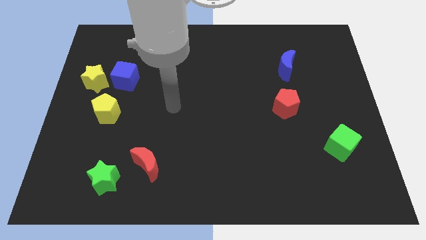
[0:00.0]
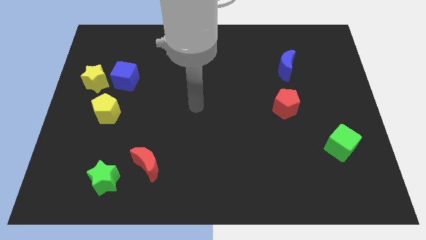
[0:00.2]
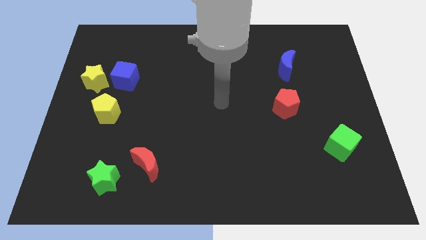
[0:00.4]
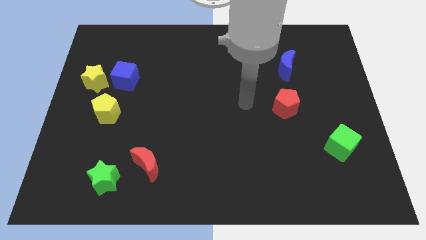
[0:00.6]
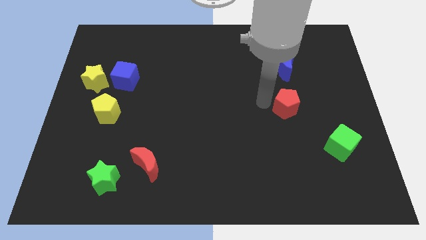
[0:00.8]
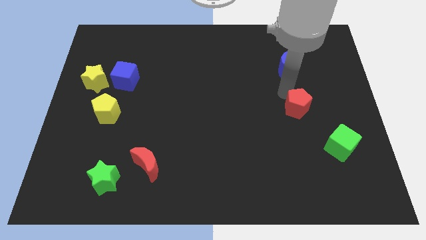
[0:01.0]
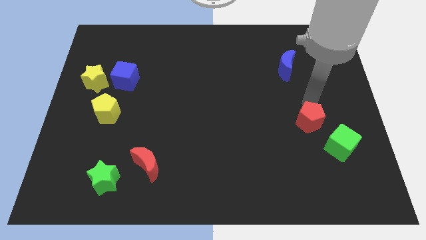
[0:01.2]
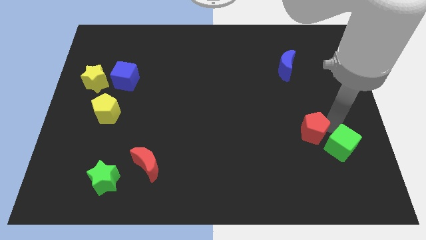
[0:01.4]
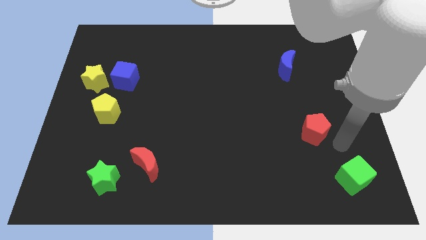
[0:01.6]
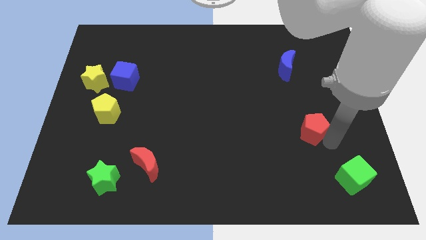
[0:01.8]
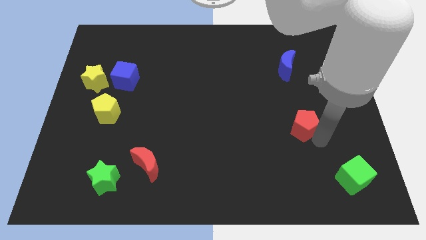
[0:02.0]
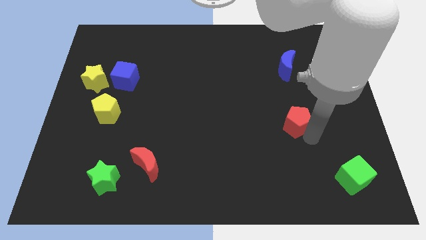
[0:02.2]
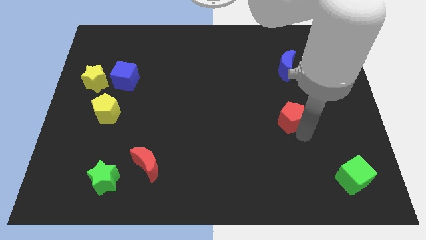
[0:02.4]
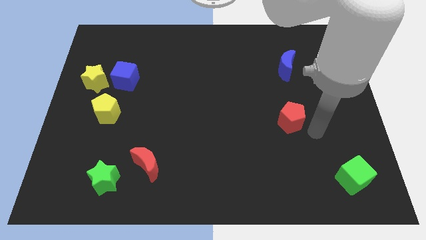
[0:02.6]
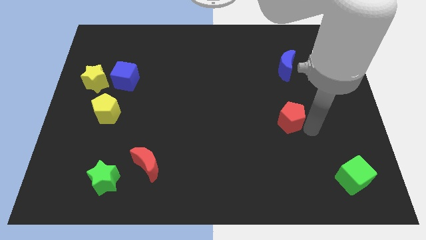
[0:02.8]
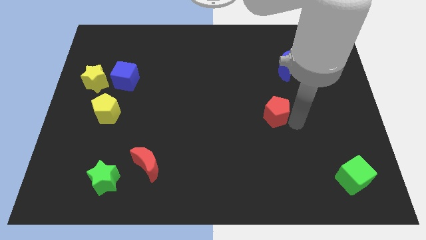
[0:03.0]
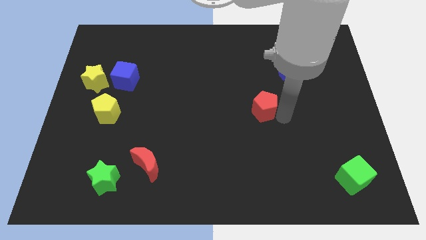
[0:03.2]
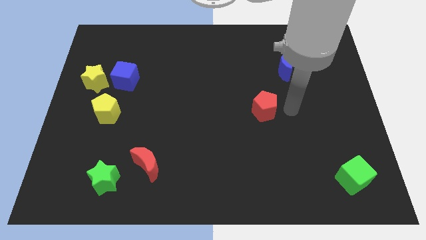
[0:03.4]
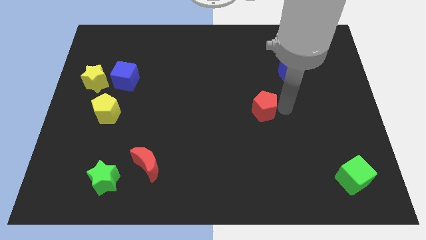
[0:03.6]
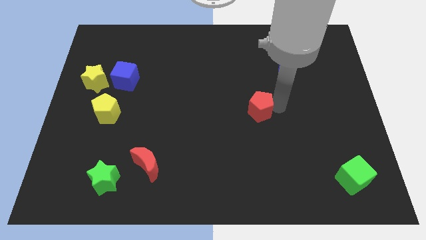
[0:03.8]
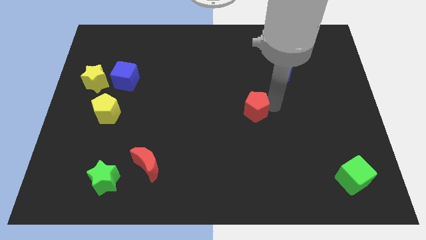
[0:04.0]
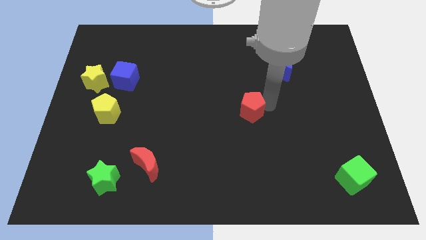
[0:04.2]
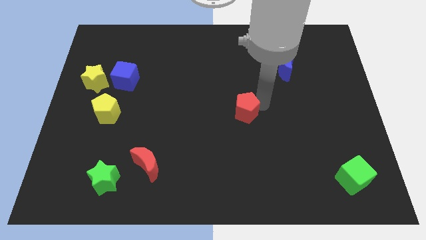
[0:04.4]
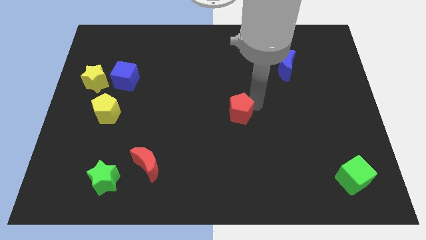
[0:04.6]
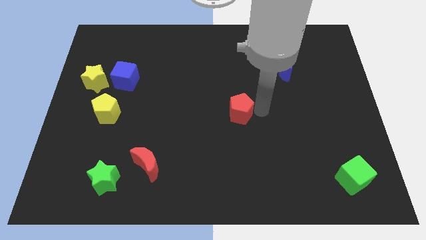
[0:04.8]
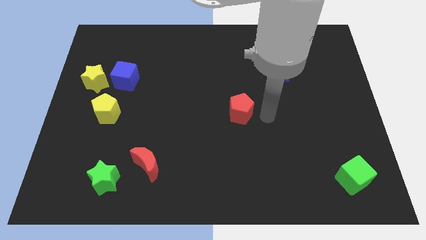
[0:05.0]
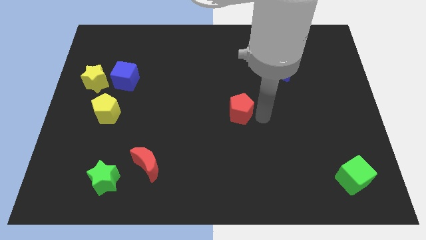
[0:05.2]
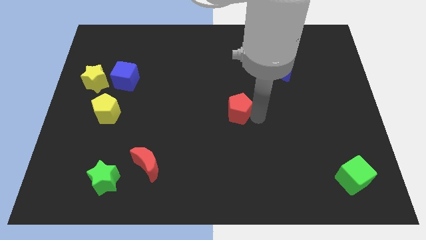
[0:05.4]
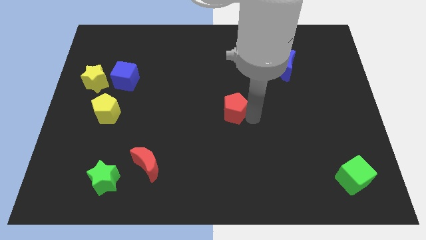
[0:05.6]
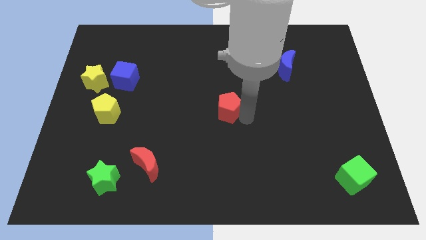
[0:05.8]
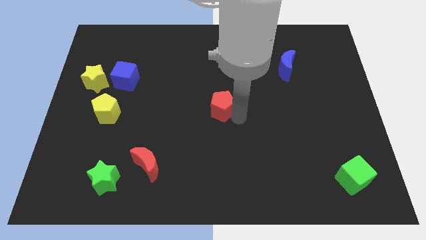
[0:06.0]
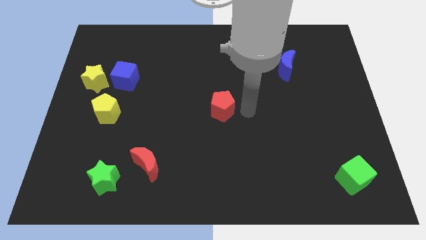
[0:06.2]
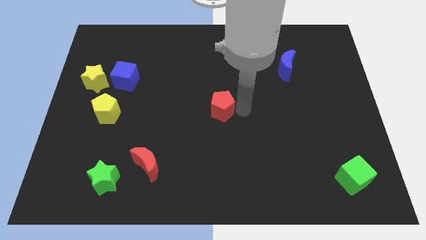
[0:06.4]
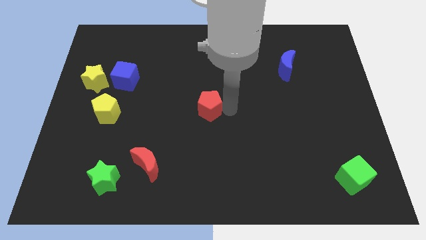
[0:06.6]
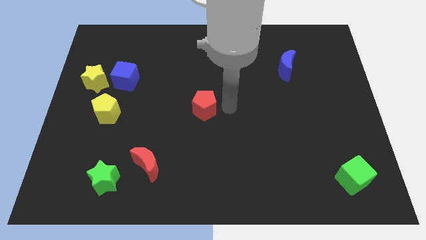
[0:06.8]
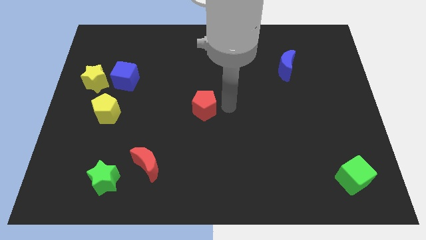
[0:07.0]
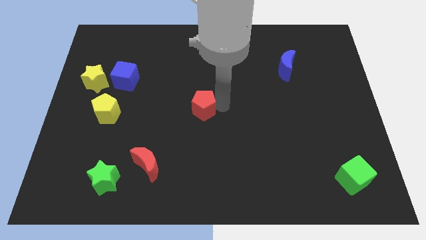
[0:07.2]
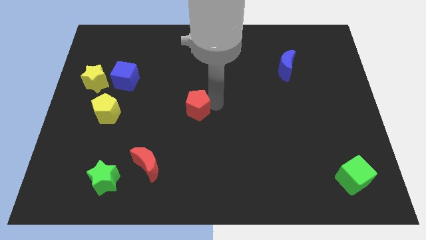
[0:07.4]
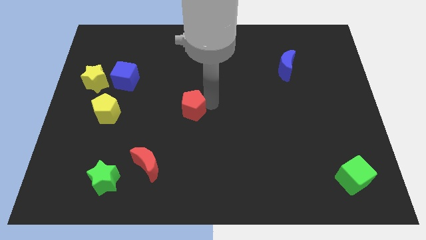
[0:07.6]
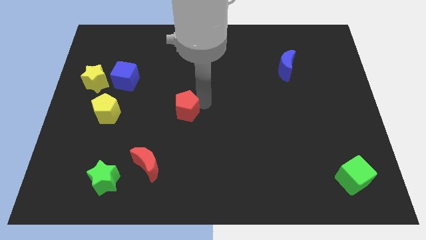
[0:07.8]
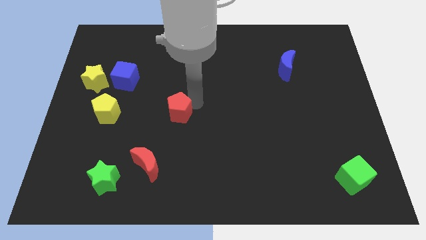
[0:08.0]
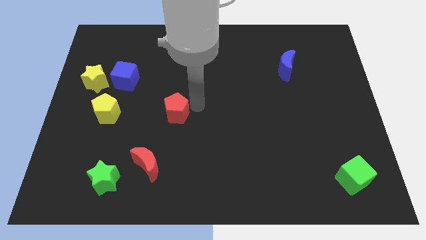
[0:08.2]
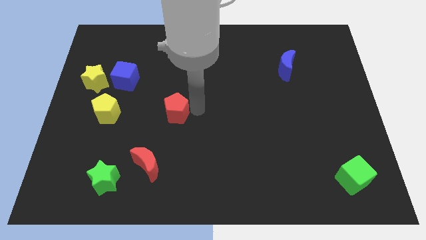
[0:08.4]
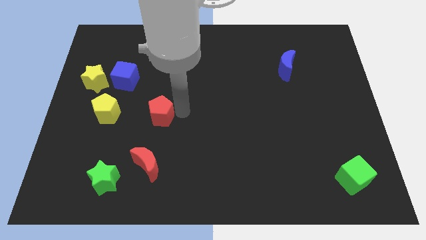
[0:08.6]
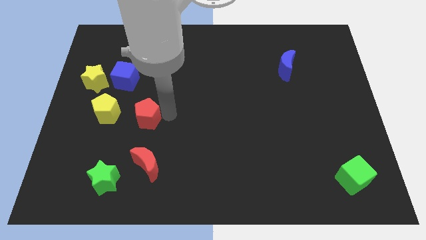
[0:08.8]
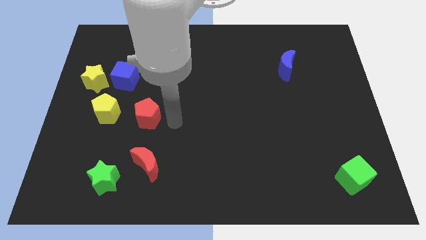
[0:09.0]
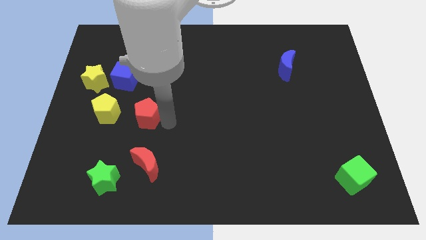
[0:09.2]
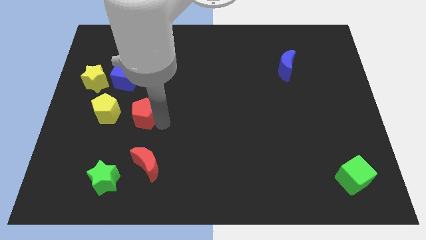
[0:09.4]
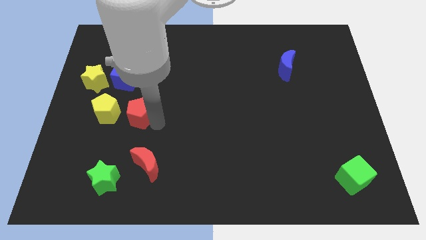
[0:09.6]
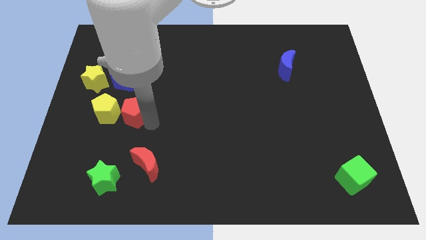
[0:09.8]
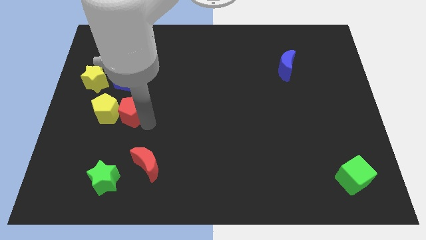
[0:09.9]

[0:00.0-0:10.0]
slide the red pentagon towards the yellow pentagon

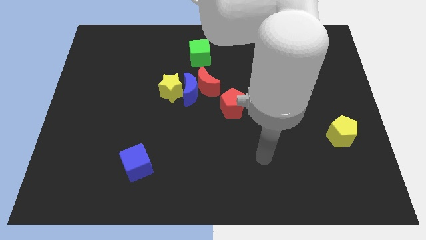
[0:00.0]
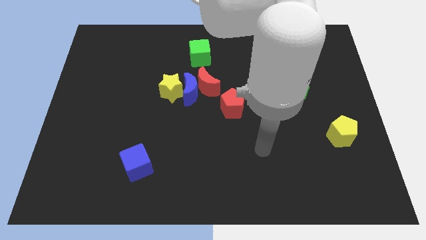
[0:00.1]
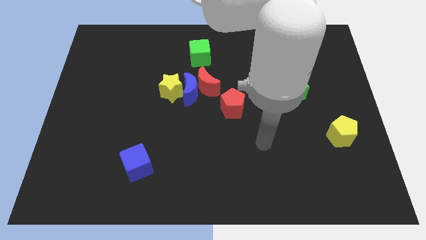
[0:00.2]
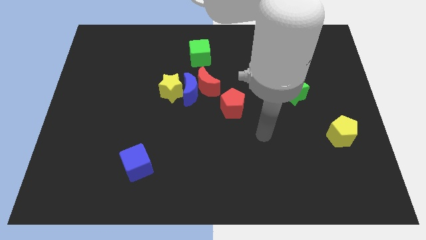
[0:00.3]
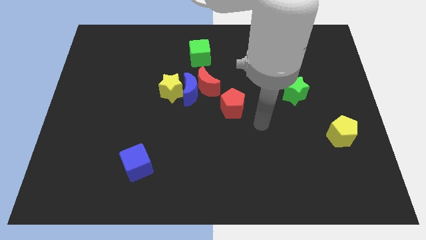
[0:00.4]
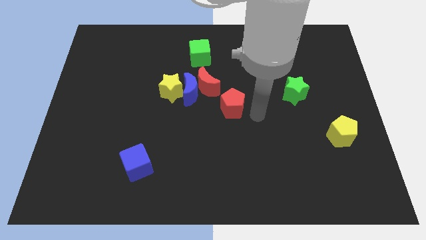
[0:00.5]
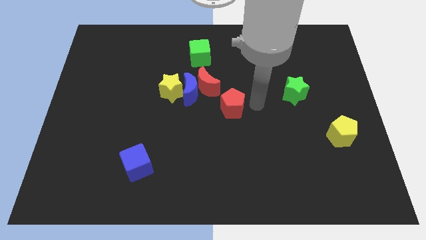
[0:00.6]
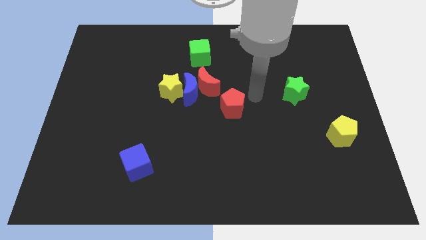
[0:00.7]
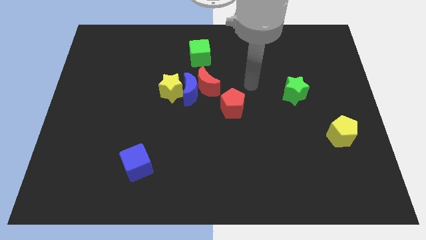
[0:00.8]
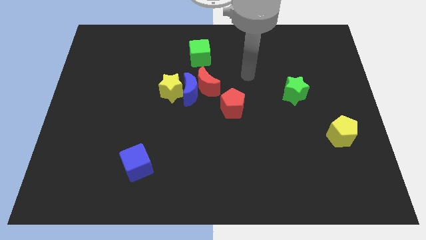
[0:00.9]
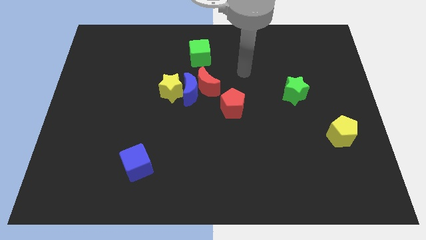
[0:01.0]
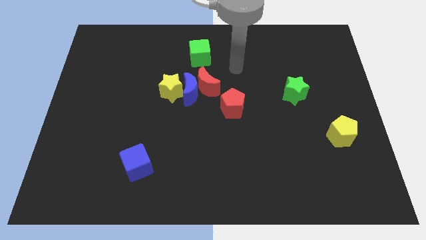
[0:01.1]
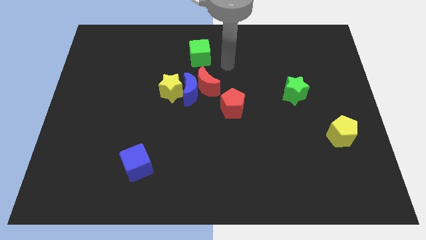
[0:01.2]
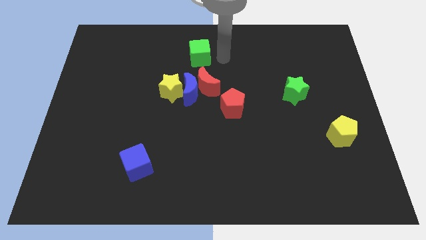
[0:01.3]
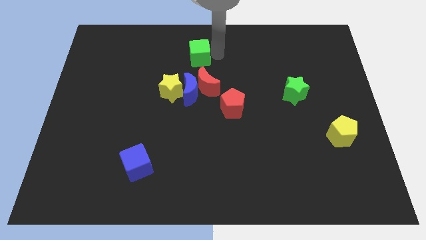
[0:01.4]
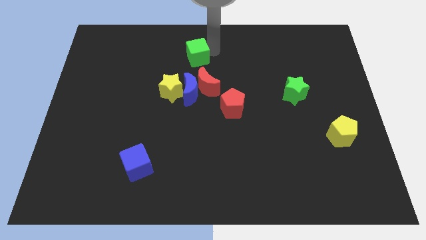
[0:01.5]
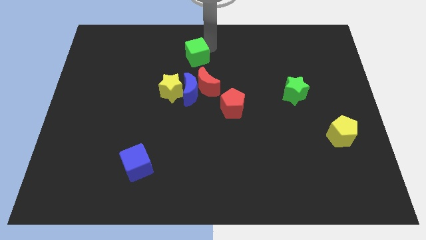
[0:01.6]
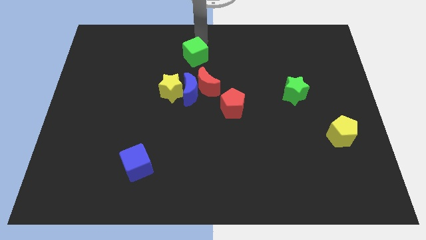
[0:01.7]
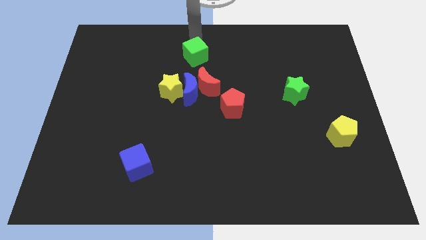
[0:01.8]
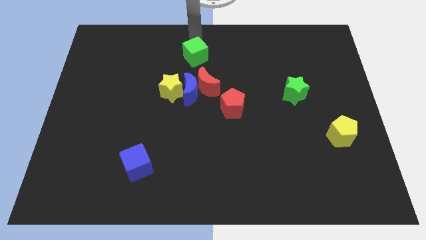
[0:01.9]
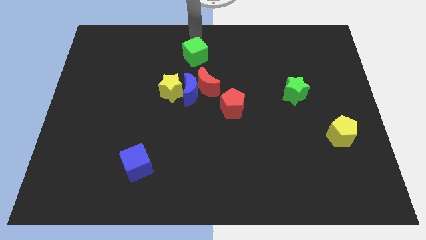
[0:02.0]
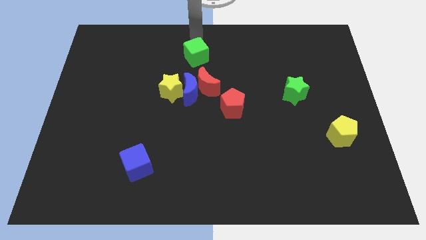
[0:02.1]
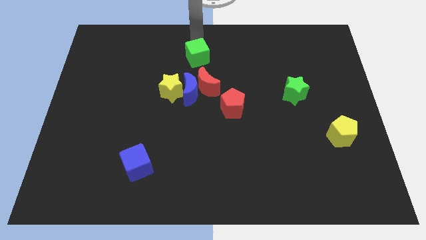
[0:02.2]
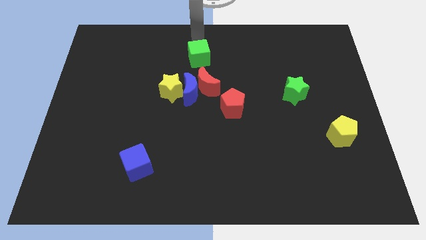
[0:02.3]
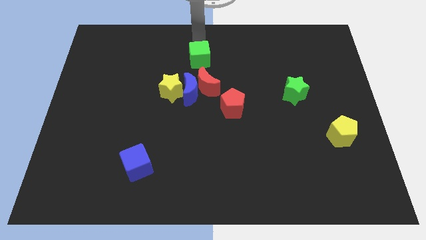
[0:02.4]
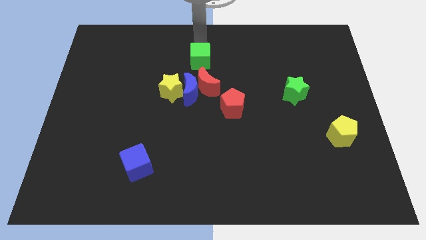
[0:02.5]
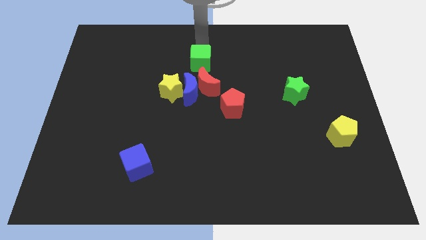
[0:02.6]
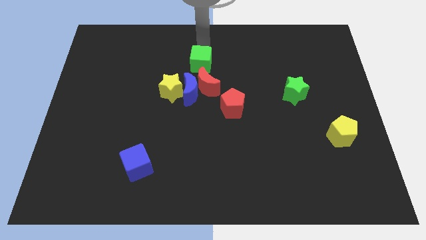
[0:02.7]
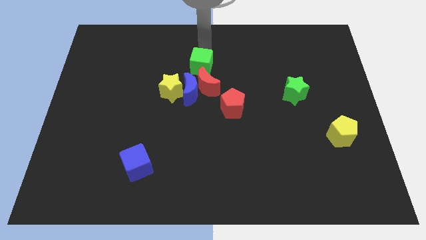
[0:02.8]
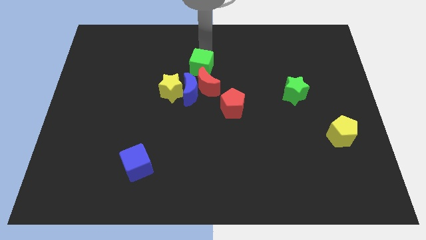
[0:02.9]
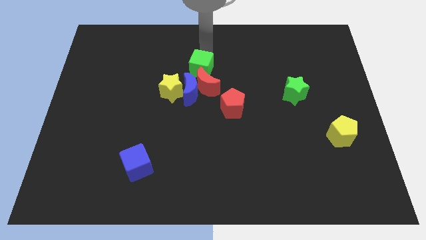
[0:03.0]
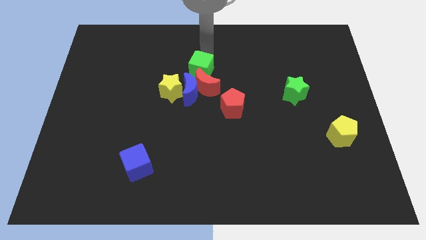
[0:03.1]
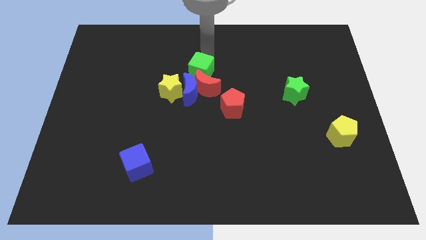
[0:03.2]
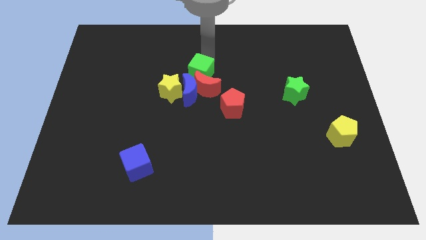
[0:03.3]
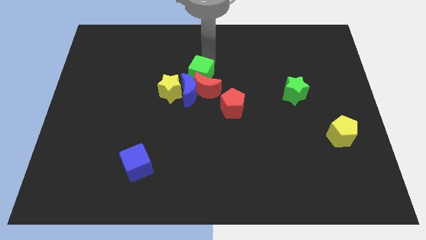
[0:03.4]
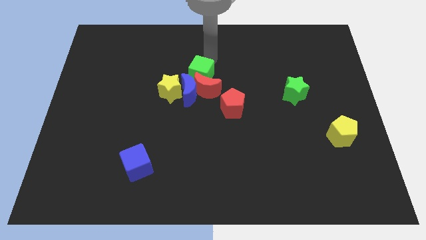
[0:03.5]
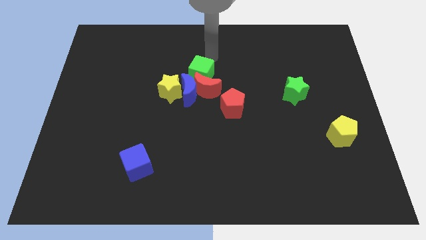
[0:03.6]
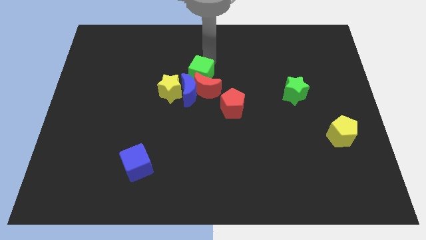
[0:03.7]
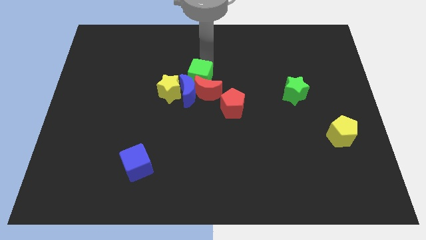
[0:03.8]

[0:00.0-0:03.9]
put the green cube to the blue moon
